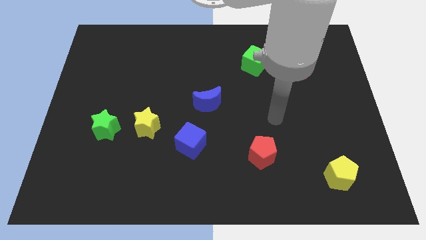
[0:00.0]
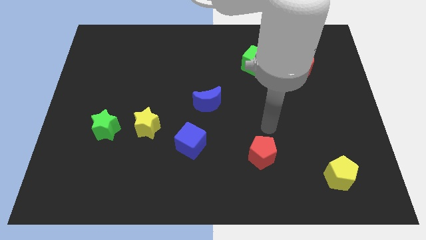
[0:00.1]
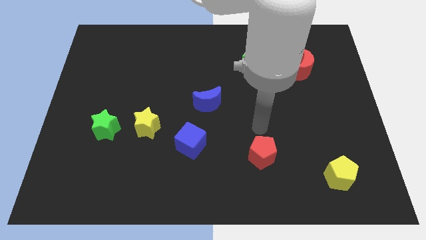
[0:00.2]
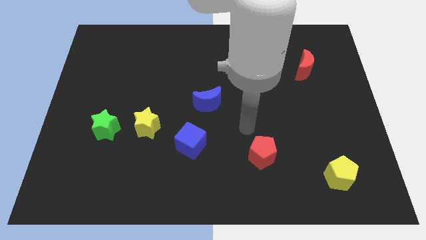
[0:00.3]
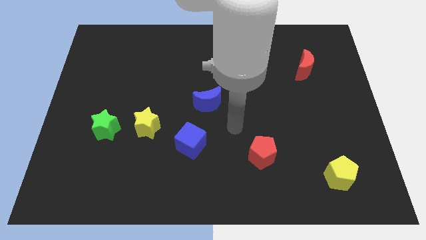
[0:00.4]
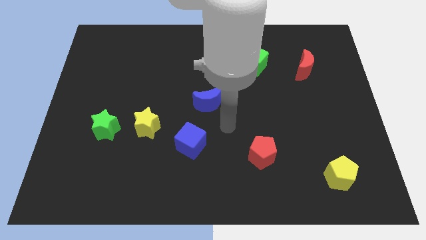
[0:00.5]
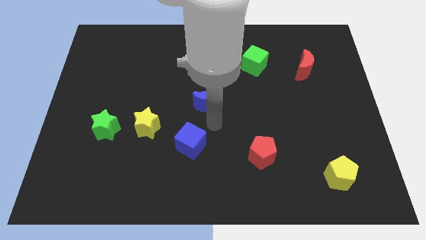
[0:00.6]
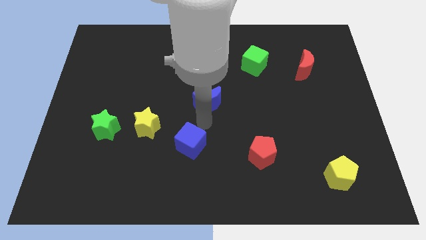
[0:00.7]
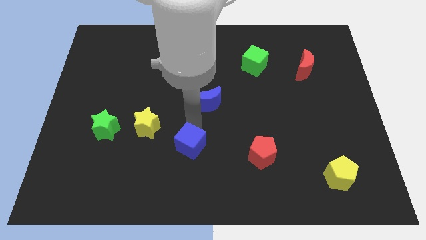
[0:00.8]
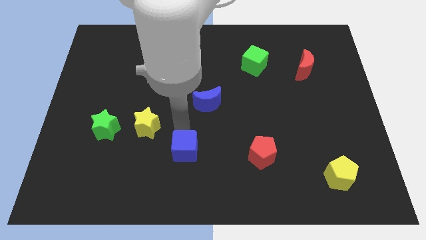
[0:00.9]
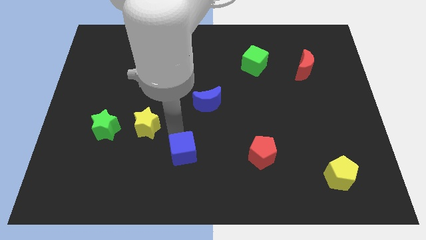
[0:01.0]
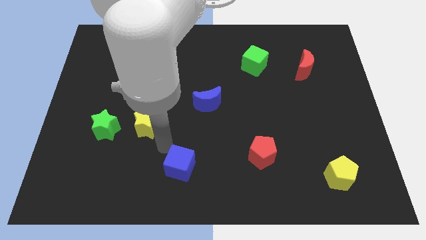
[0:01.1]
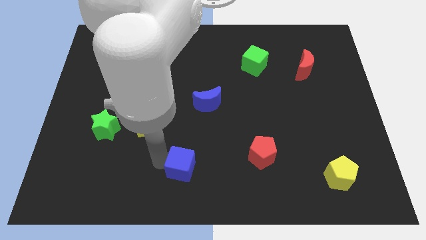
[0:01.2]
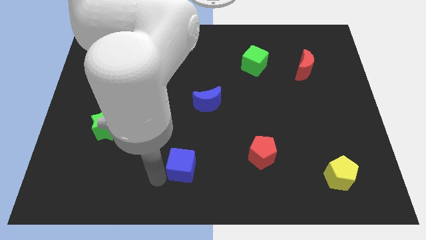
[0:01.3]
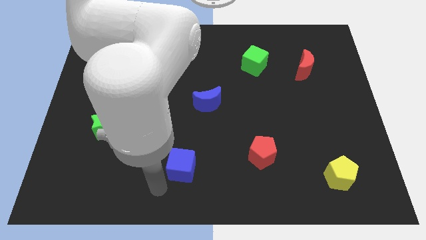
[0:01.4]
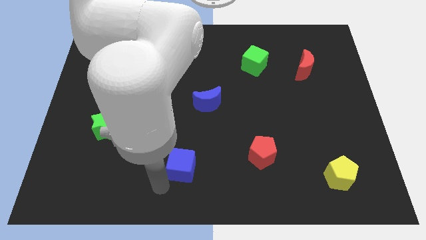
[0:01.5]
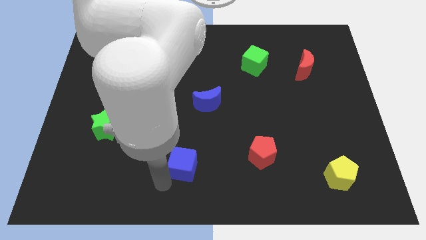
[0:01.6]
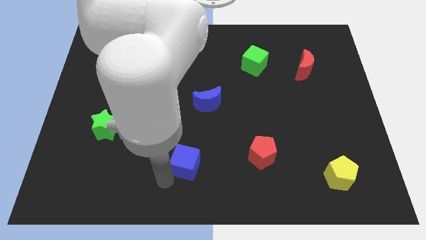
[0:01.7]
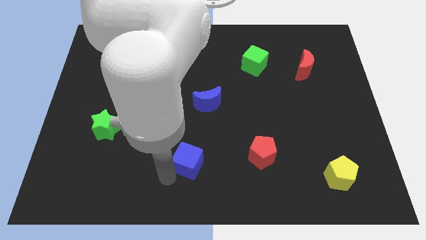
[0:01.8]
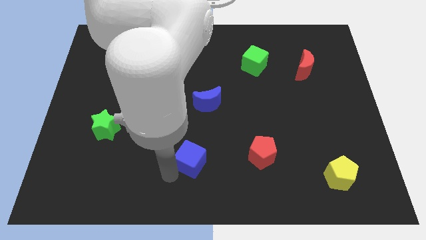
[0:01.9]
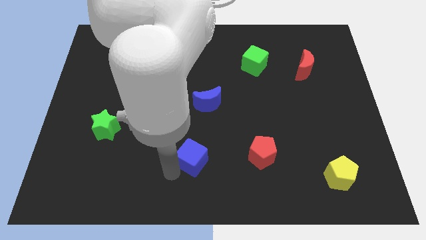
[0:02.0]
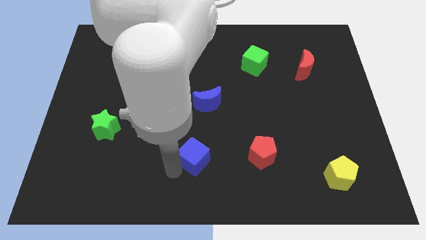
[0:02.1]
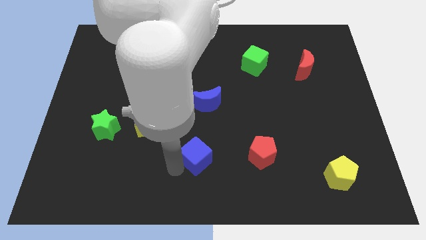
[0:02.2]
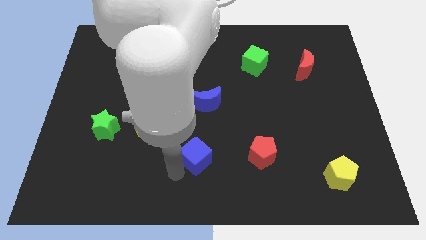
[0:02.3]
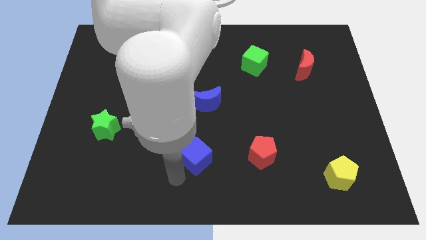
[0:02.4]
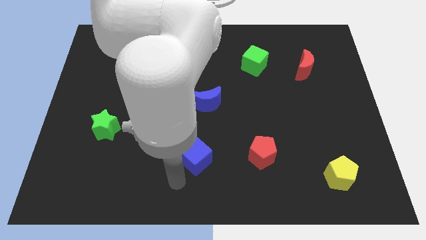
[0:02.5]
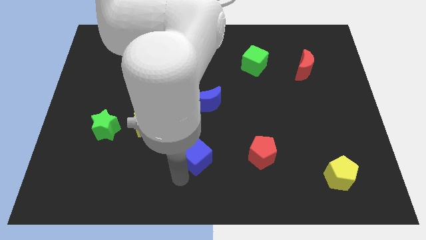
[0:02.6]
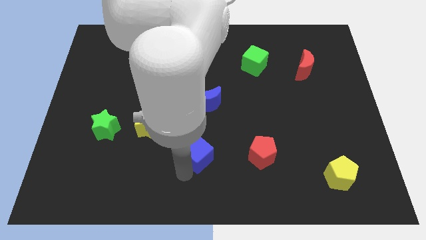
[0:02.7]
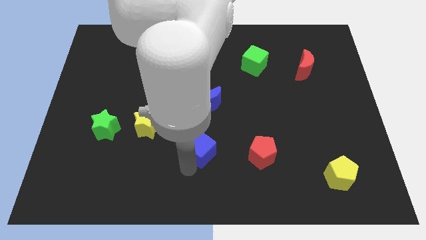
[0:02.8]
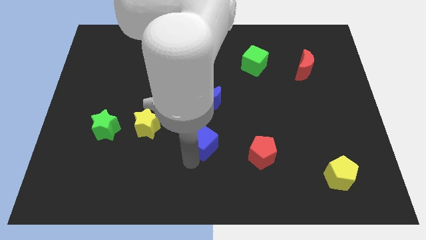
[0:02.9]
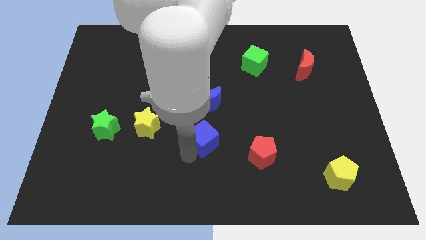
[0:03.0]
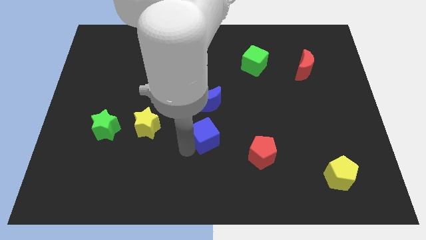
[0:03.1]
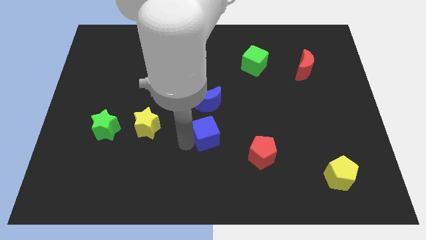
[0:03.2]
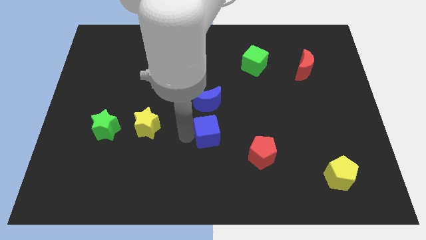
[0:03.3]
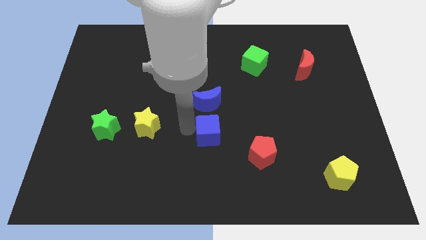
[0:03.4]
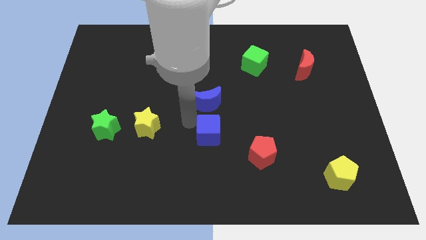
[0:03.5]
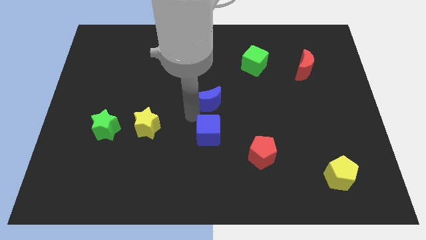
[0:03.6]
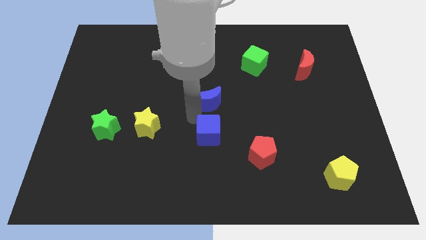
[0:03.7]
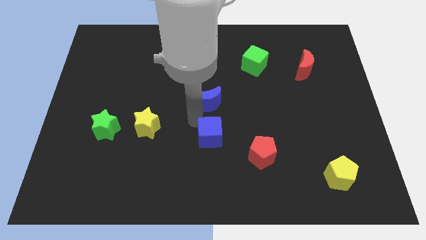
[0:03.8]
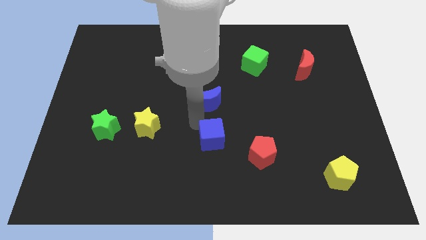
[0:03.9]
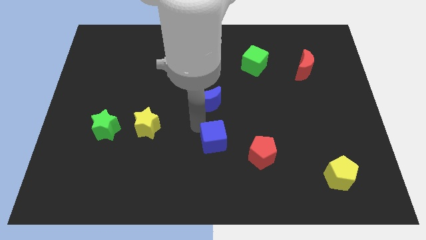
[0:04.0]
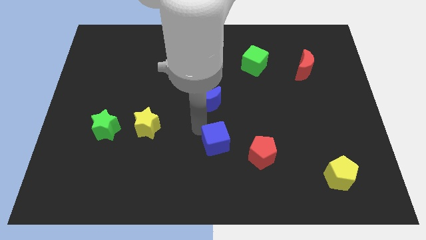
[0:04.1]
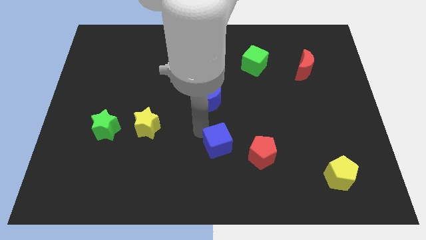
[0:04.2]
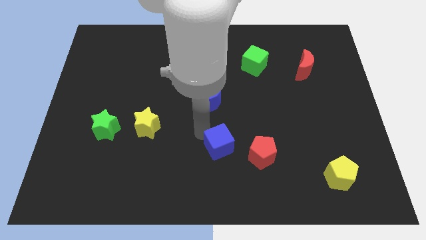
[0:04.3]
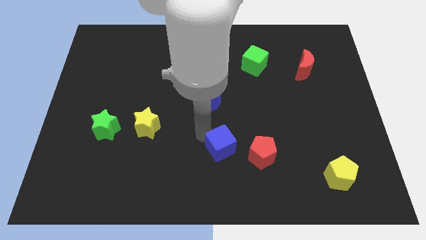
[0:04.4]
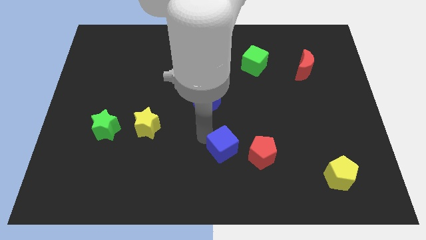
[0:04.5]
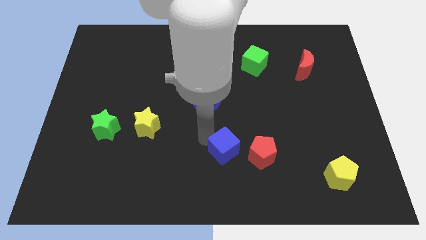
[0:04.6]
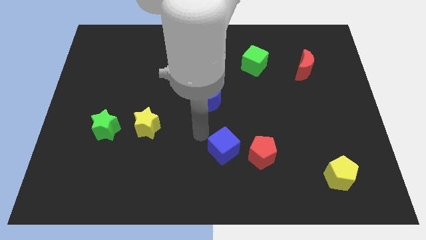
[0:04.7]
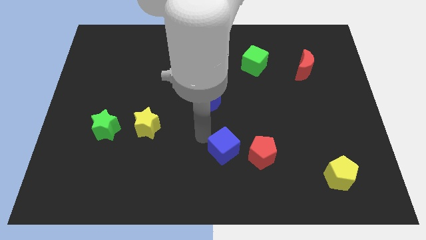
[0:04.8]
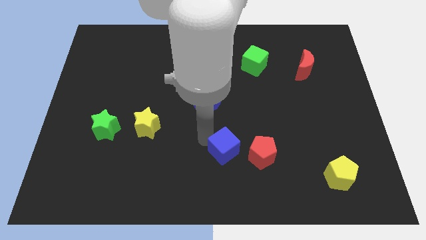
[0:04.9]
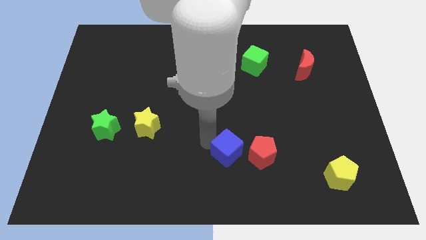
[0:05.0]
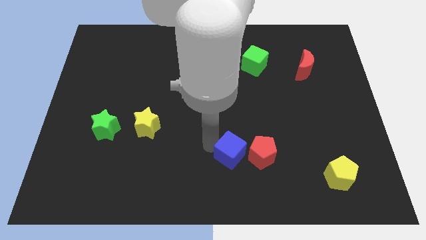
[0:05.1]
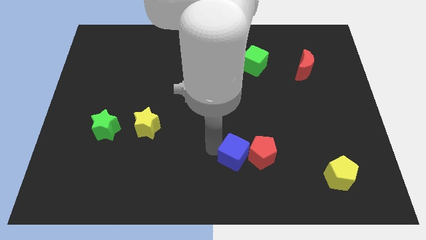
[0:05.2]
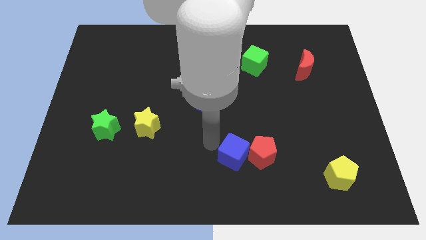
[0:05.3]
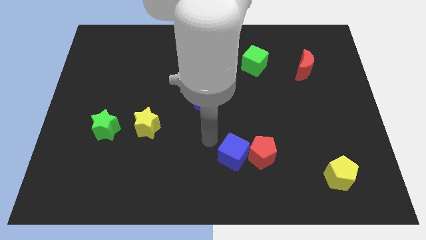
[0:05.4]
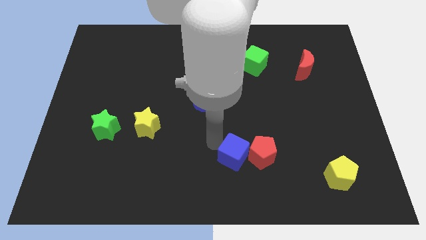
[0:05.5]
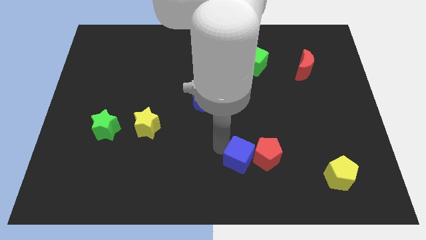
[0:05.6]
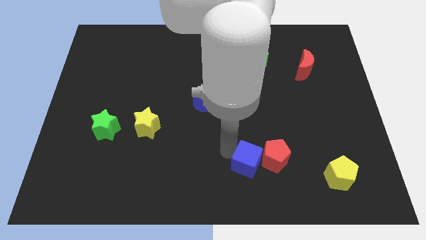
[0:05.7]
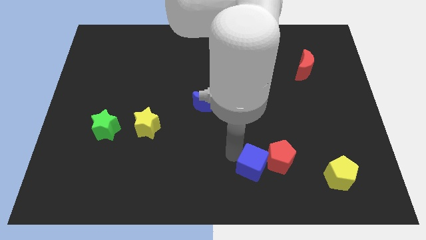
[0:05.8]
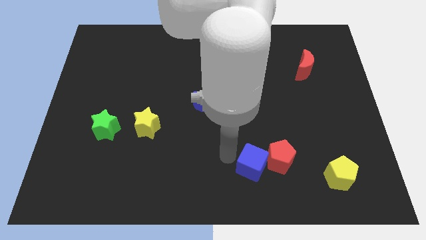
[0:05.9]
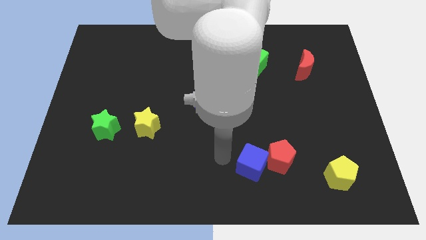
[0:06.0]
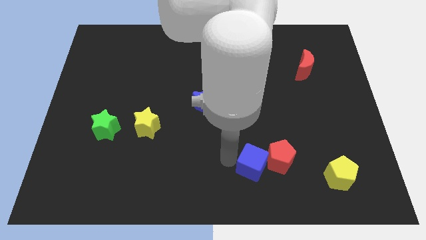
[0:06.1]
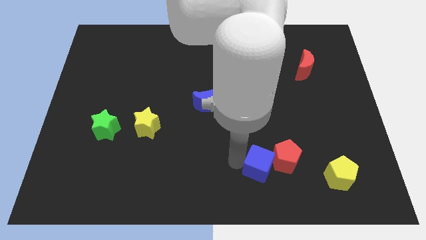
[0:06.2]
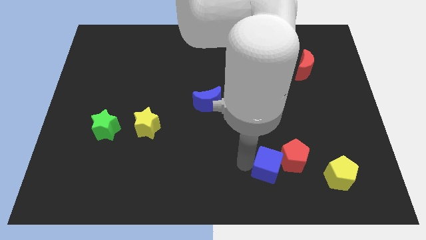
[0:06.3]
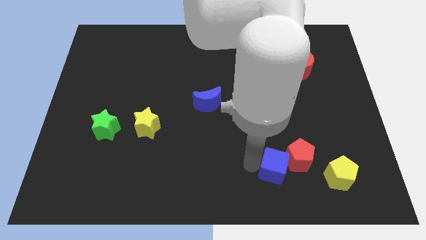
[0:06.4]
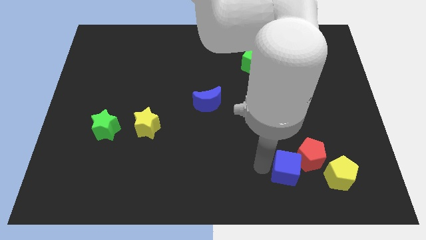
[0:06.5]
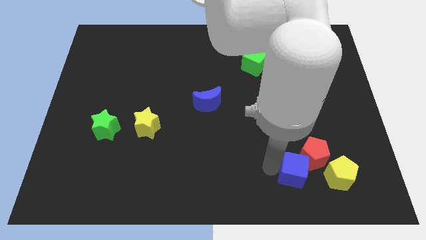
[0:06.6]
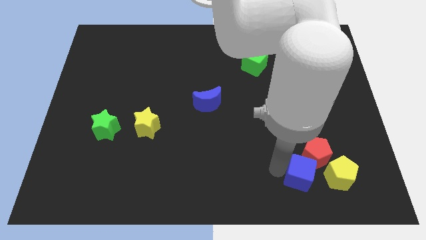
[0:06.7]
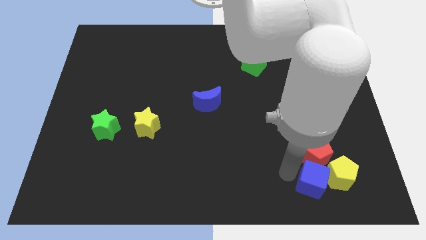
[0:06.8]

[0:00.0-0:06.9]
put the blue cube towards the yellow pentagon
